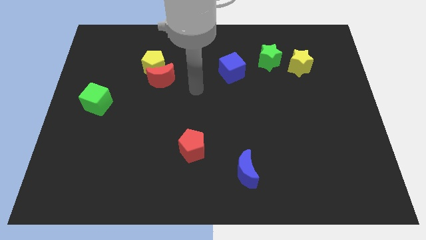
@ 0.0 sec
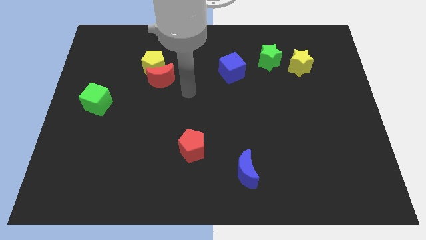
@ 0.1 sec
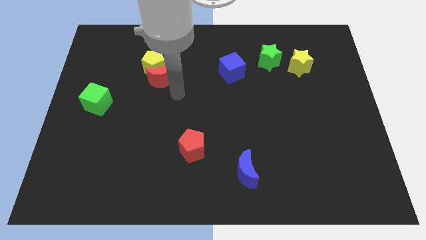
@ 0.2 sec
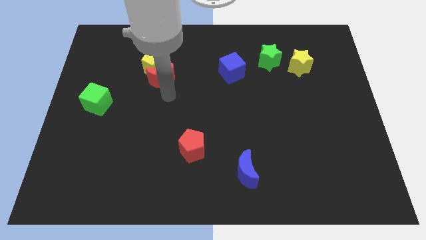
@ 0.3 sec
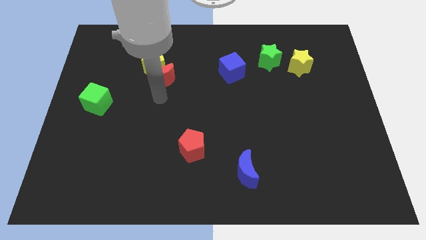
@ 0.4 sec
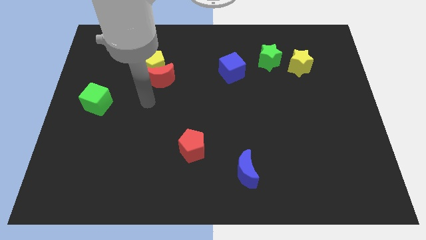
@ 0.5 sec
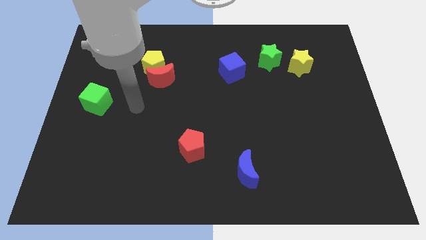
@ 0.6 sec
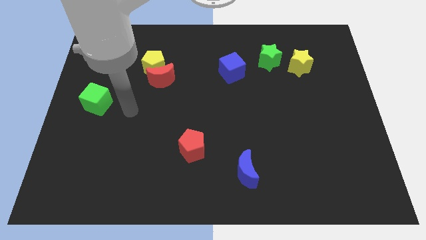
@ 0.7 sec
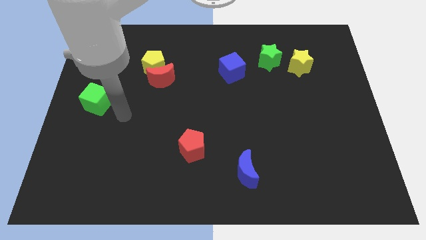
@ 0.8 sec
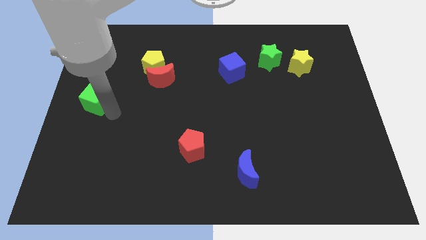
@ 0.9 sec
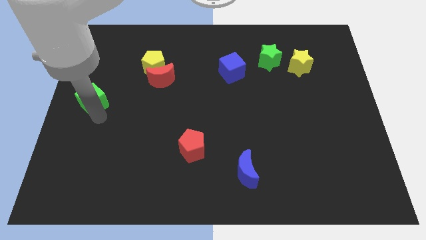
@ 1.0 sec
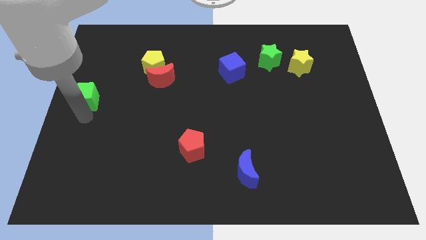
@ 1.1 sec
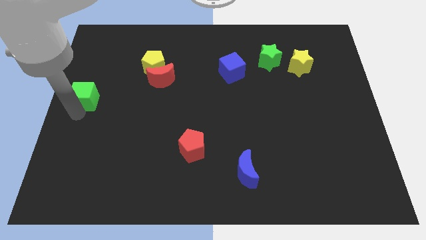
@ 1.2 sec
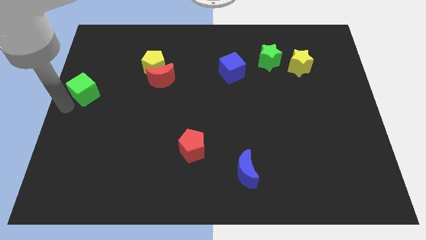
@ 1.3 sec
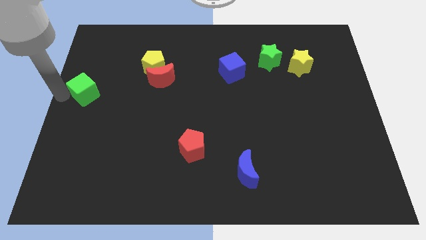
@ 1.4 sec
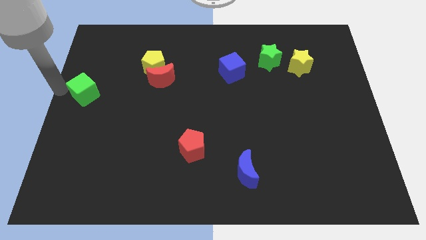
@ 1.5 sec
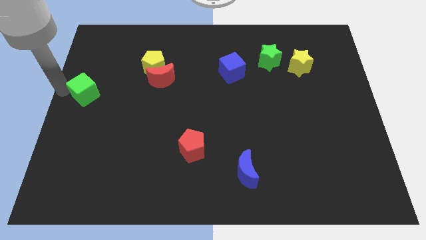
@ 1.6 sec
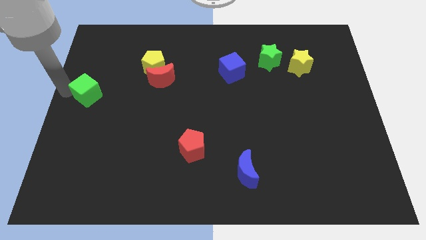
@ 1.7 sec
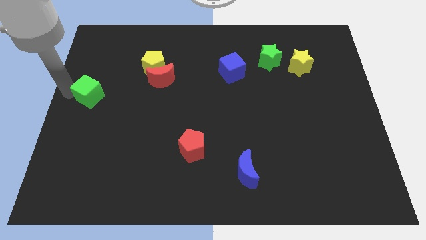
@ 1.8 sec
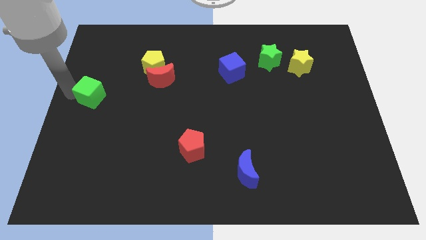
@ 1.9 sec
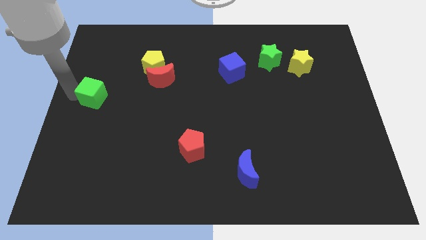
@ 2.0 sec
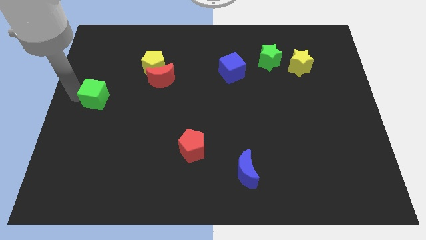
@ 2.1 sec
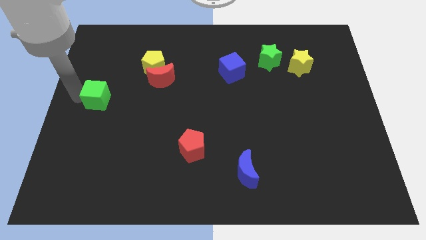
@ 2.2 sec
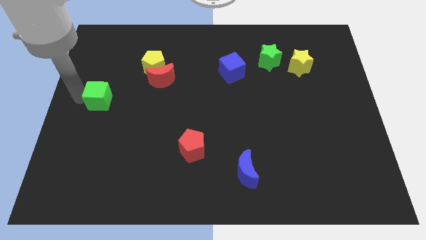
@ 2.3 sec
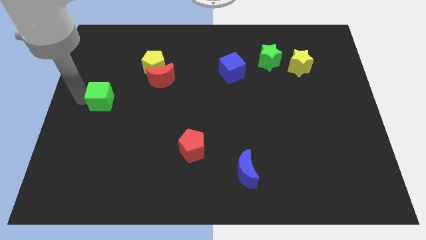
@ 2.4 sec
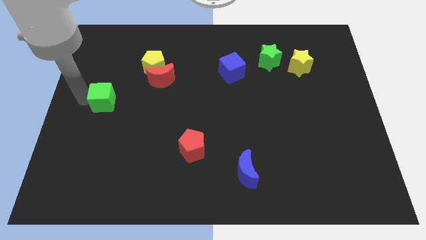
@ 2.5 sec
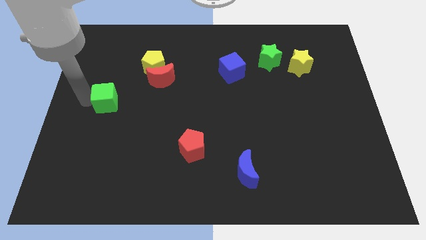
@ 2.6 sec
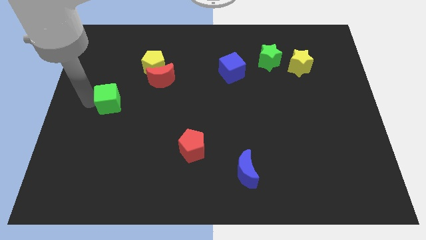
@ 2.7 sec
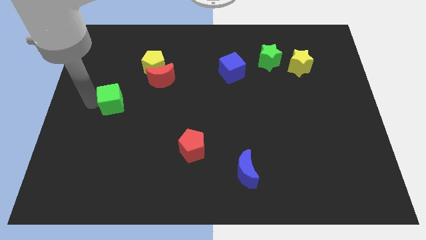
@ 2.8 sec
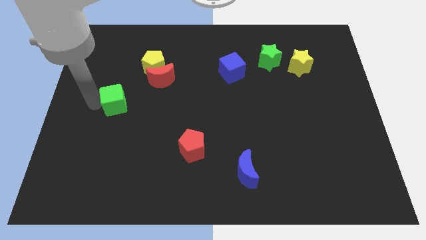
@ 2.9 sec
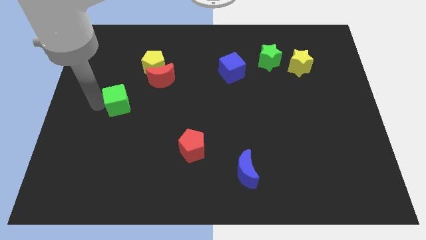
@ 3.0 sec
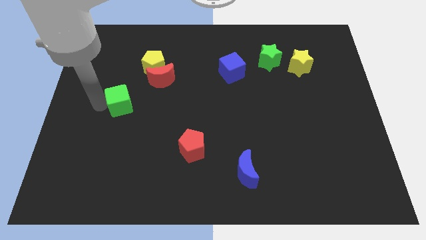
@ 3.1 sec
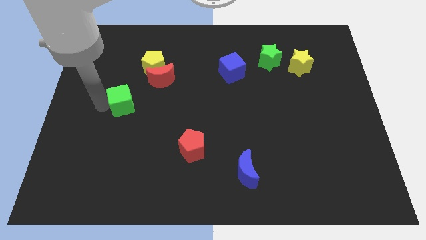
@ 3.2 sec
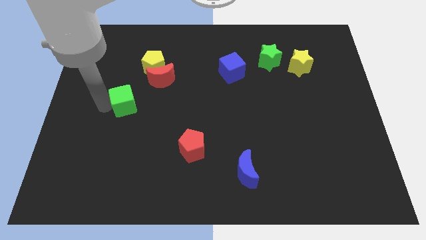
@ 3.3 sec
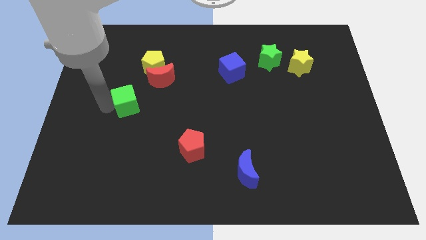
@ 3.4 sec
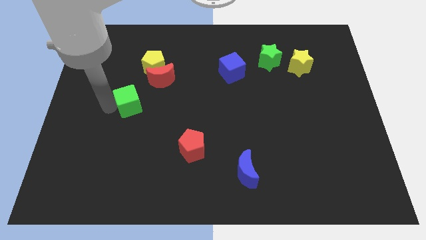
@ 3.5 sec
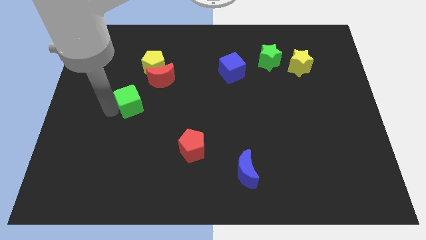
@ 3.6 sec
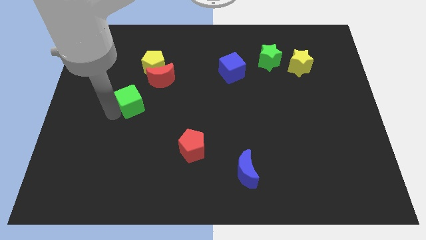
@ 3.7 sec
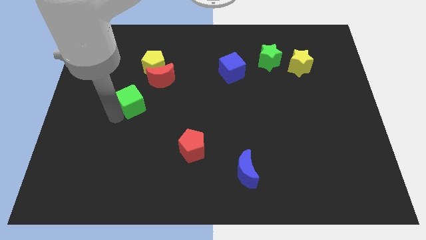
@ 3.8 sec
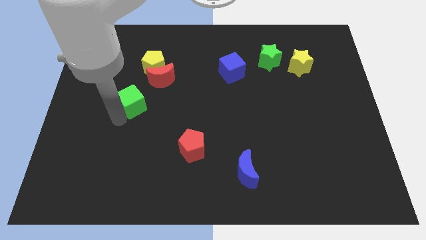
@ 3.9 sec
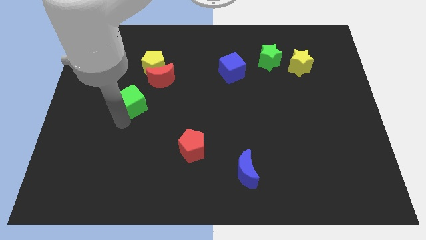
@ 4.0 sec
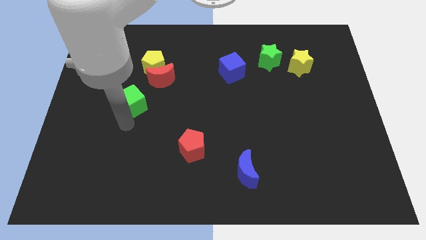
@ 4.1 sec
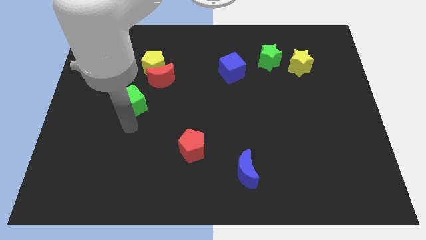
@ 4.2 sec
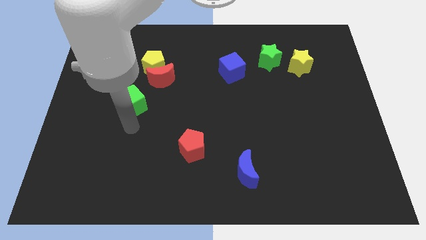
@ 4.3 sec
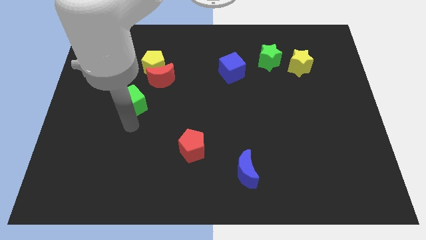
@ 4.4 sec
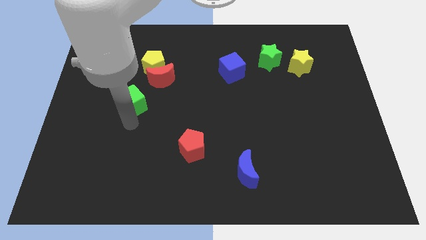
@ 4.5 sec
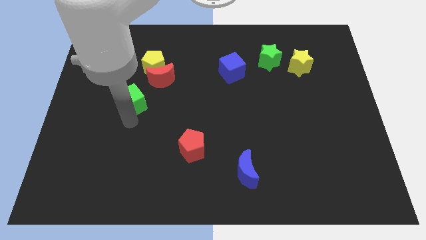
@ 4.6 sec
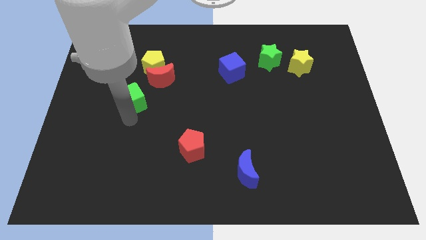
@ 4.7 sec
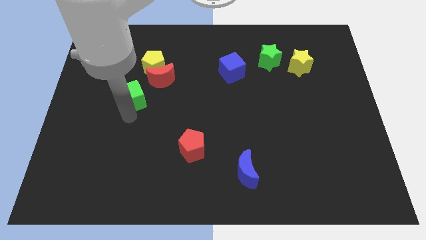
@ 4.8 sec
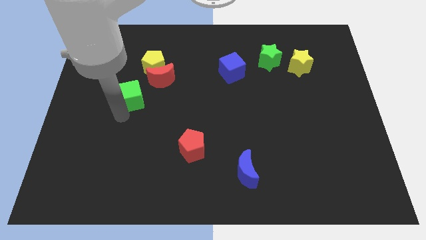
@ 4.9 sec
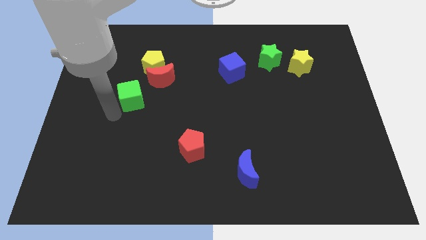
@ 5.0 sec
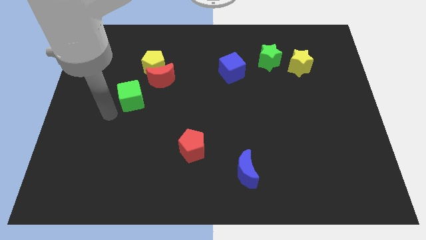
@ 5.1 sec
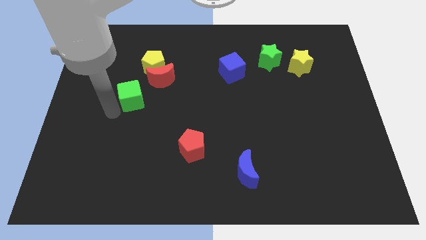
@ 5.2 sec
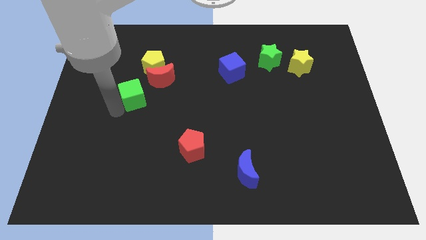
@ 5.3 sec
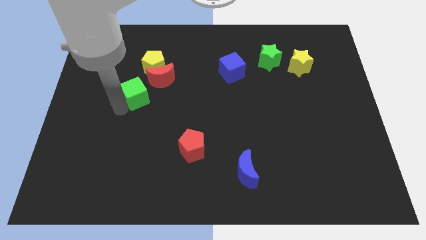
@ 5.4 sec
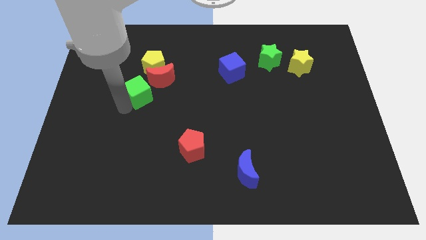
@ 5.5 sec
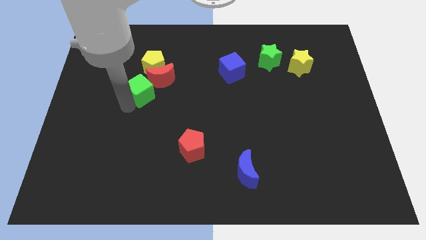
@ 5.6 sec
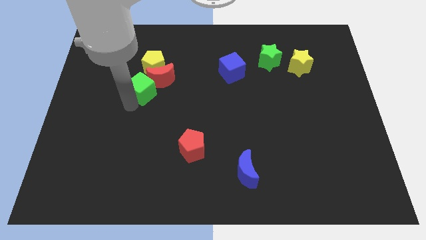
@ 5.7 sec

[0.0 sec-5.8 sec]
push the green cube to the red moon

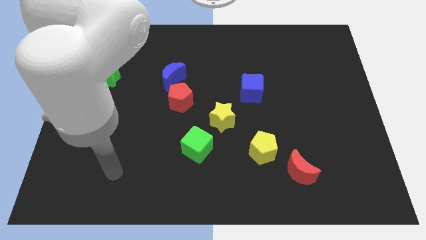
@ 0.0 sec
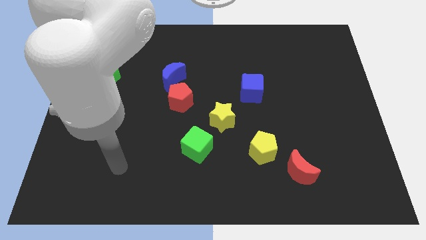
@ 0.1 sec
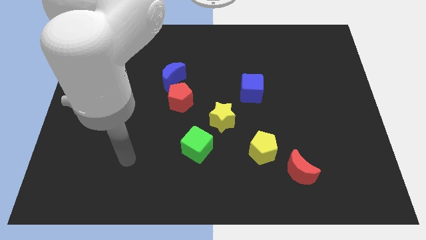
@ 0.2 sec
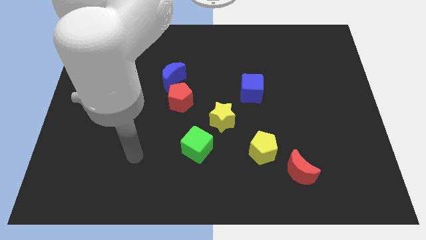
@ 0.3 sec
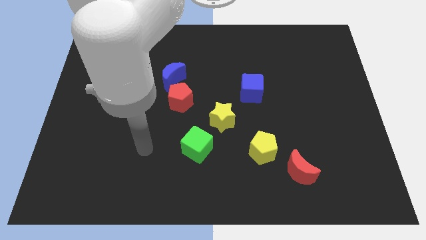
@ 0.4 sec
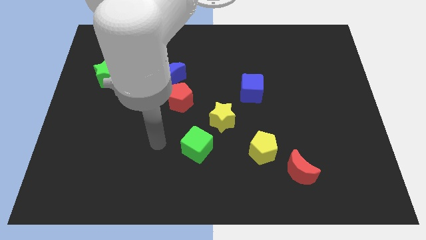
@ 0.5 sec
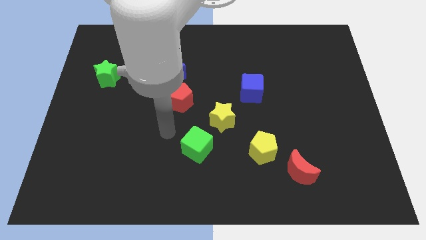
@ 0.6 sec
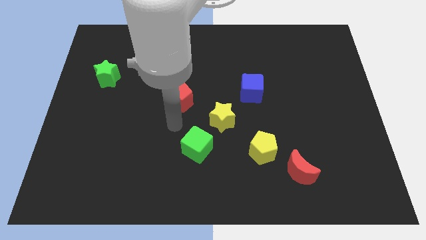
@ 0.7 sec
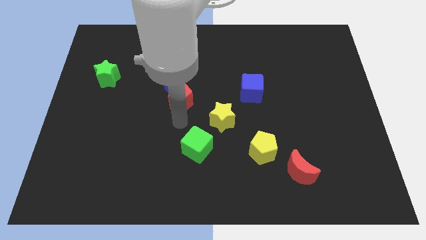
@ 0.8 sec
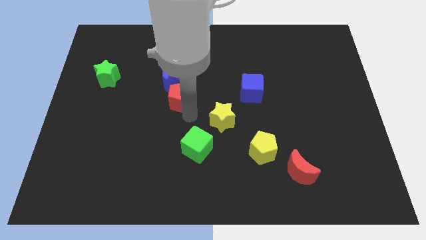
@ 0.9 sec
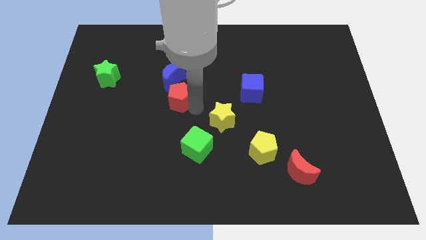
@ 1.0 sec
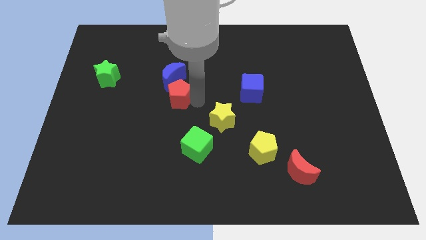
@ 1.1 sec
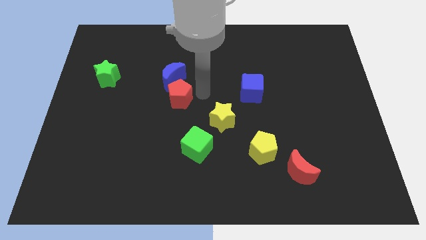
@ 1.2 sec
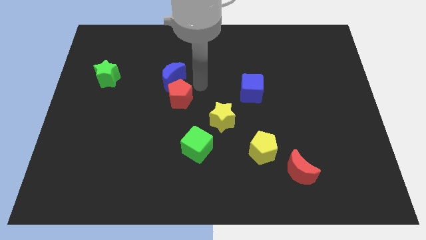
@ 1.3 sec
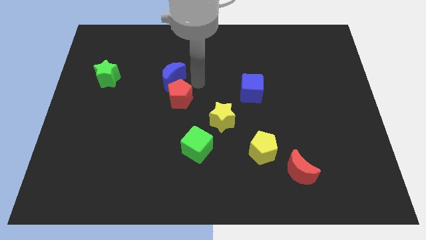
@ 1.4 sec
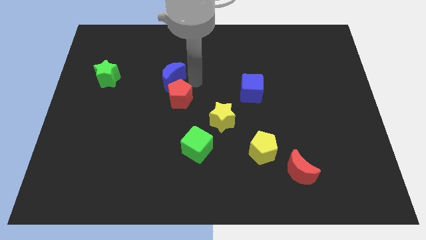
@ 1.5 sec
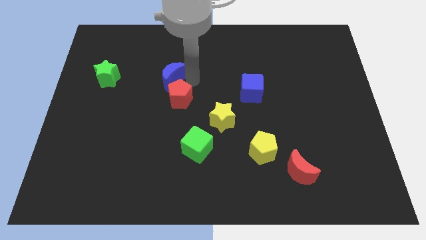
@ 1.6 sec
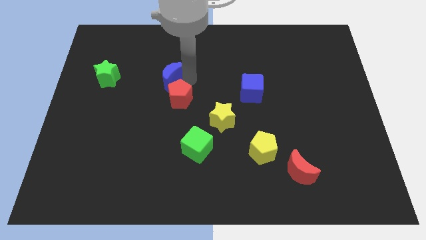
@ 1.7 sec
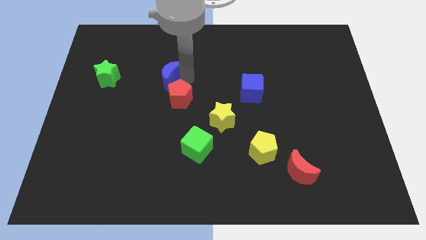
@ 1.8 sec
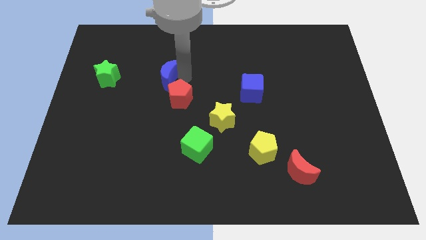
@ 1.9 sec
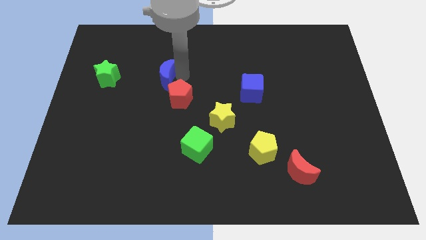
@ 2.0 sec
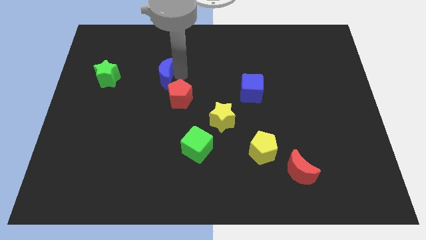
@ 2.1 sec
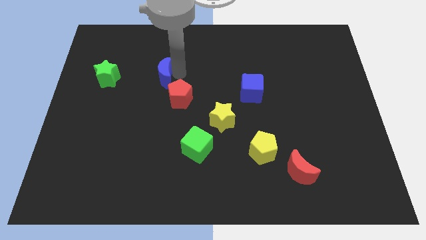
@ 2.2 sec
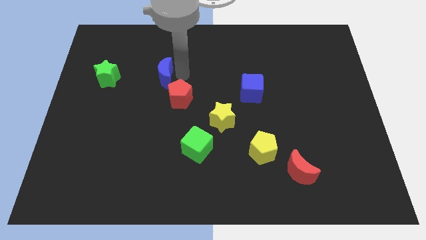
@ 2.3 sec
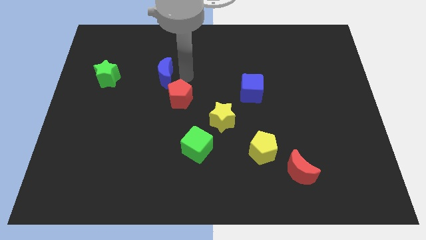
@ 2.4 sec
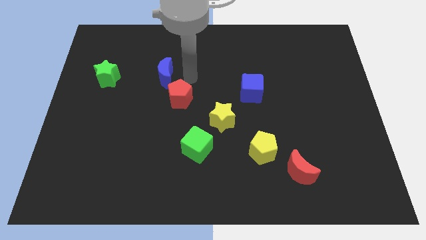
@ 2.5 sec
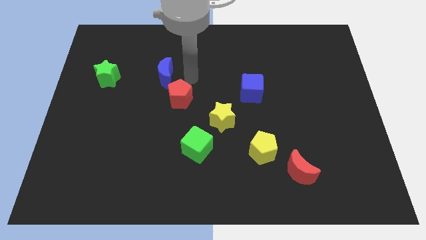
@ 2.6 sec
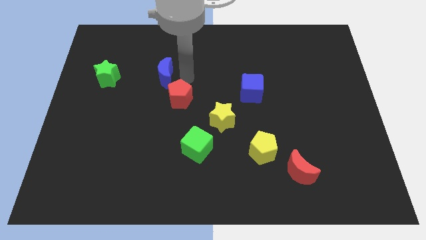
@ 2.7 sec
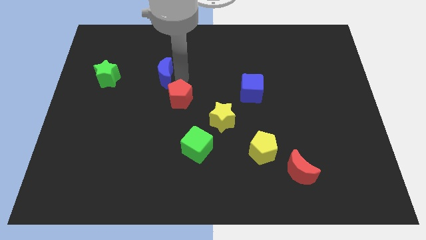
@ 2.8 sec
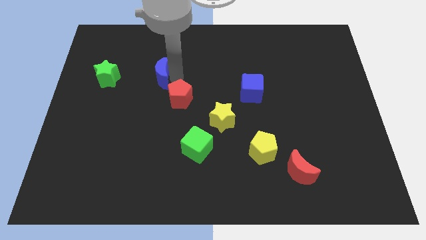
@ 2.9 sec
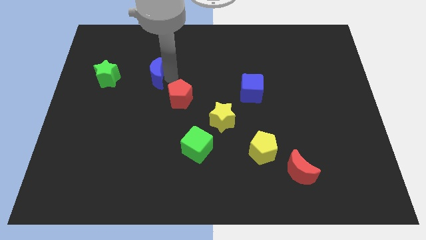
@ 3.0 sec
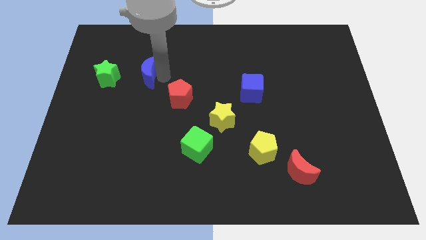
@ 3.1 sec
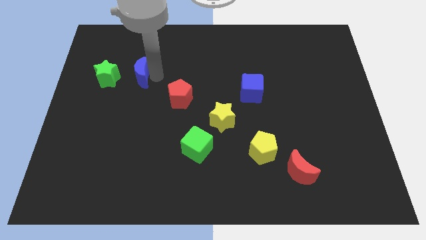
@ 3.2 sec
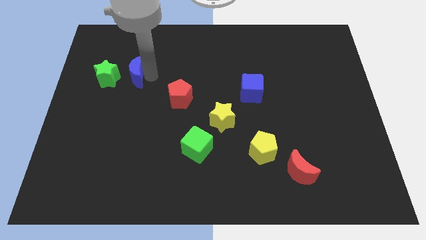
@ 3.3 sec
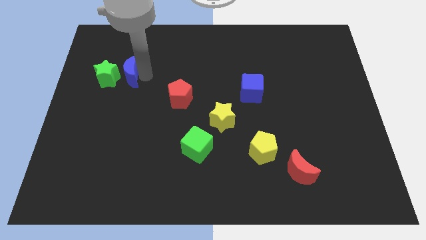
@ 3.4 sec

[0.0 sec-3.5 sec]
push the blue moon next to the green star
